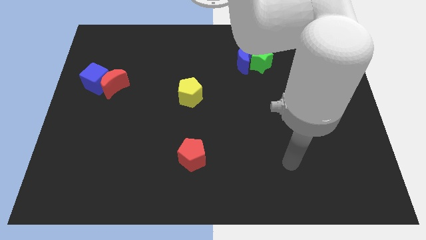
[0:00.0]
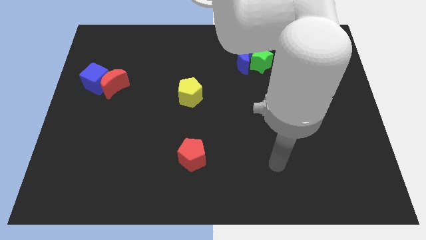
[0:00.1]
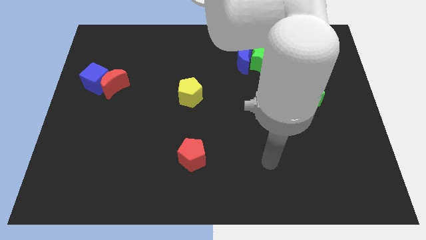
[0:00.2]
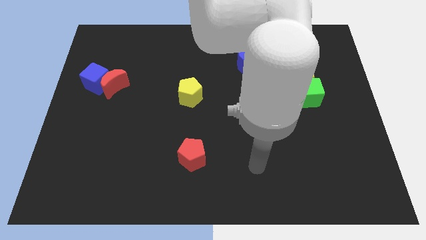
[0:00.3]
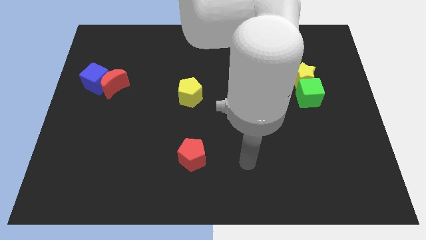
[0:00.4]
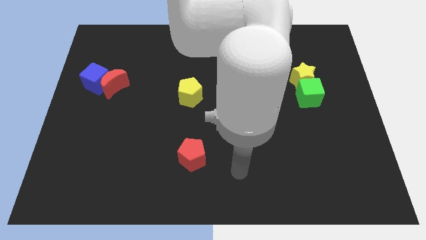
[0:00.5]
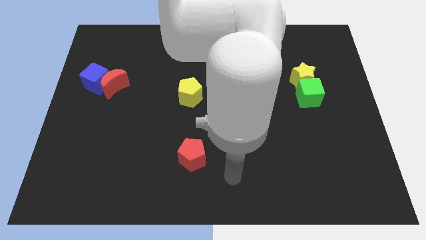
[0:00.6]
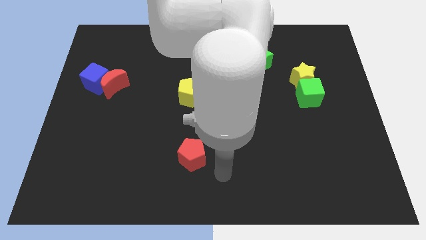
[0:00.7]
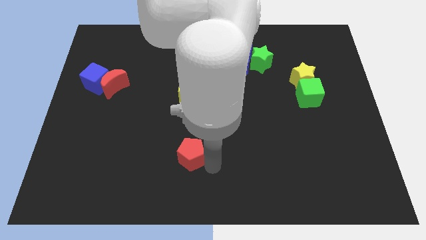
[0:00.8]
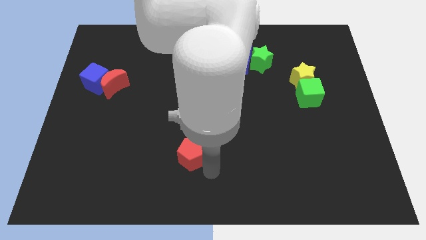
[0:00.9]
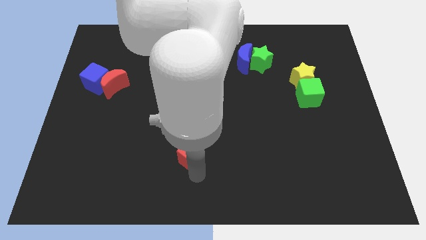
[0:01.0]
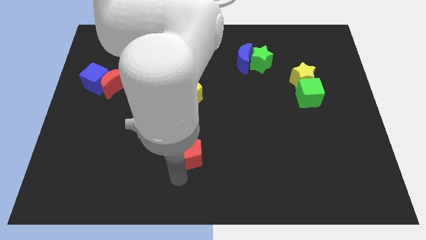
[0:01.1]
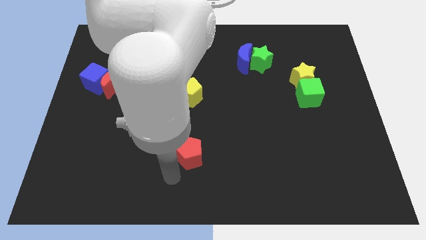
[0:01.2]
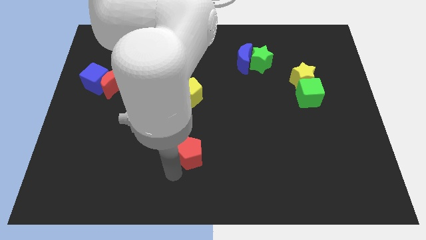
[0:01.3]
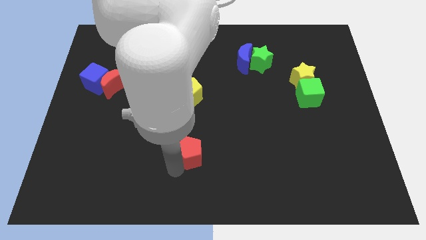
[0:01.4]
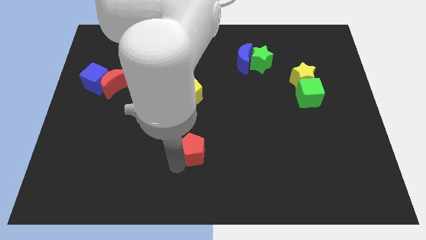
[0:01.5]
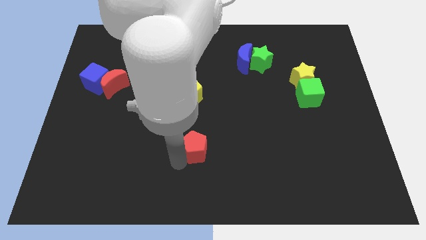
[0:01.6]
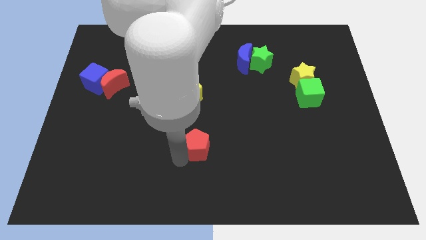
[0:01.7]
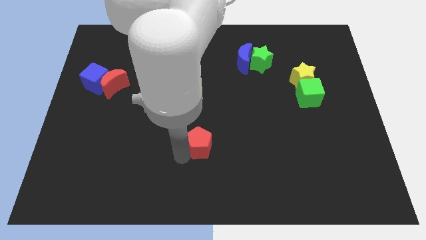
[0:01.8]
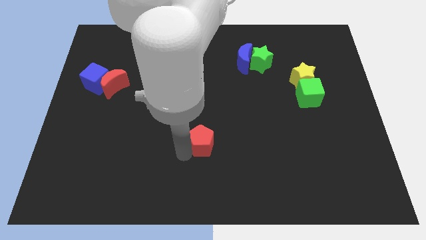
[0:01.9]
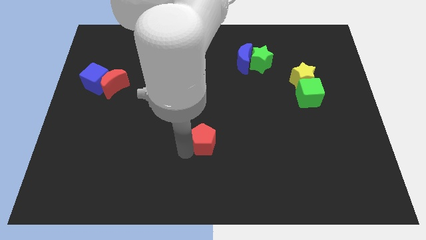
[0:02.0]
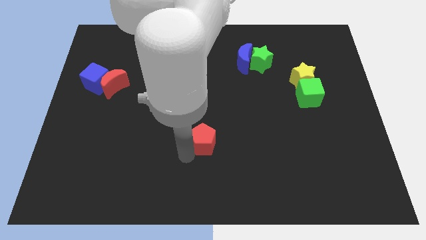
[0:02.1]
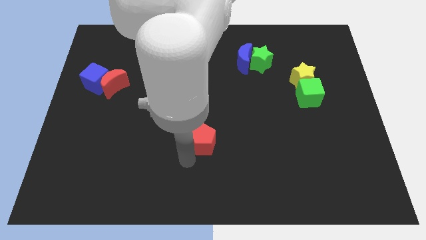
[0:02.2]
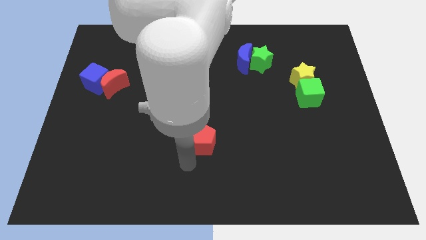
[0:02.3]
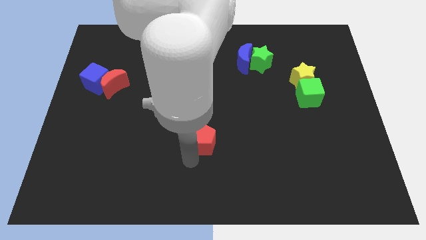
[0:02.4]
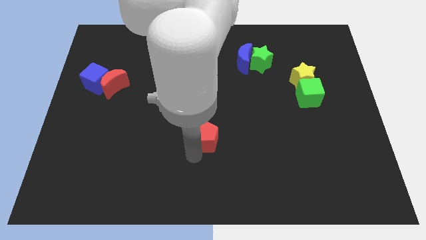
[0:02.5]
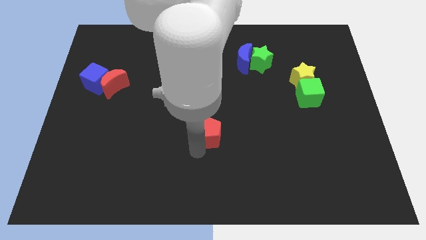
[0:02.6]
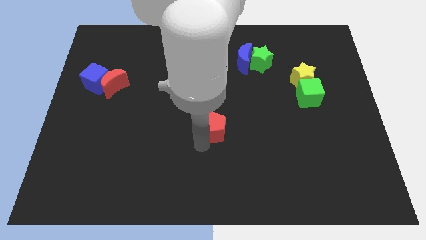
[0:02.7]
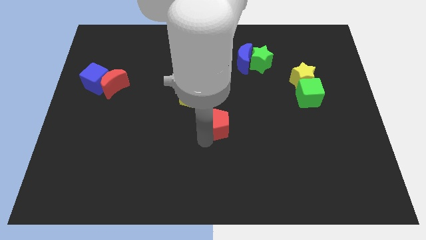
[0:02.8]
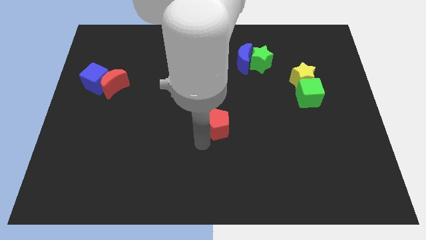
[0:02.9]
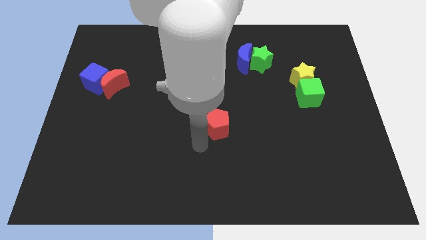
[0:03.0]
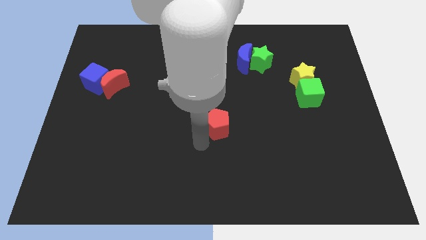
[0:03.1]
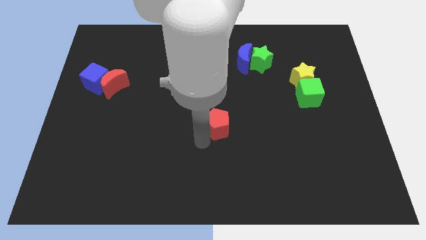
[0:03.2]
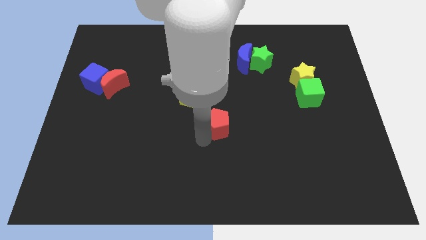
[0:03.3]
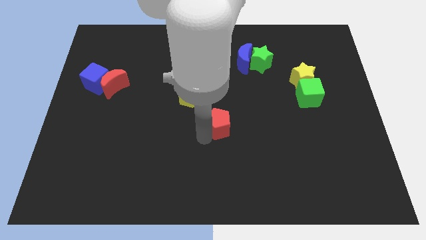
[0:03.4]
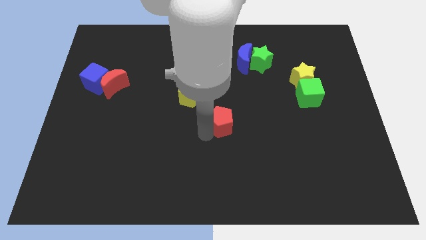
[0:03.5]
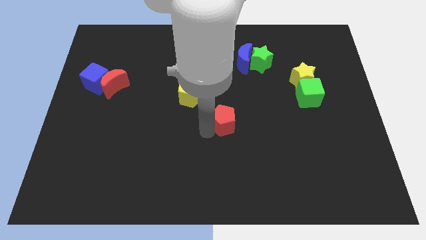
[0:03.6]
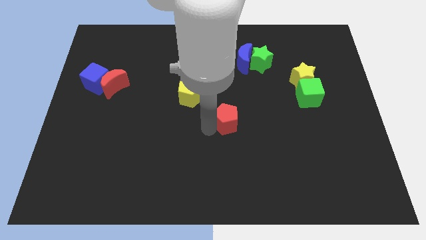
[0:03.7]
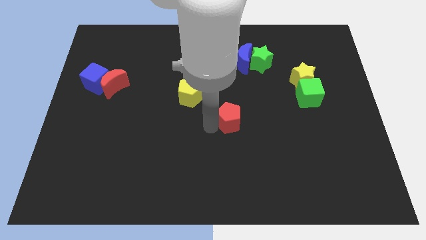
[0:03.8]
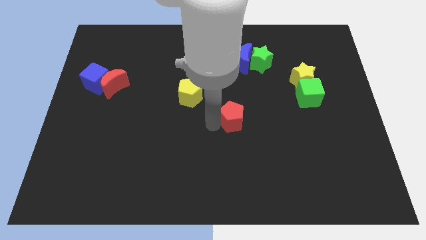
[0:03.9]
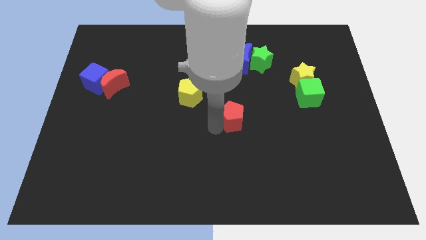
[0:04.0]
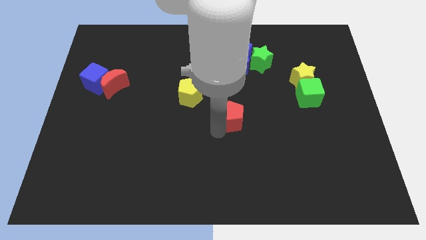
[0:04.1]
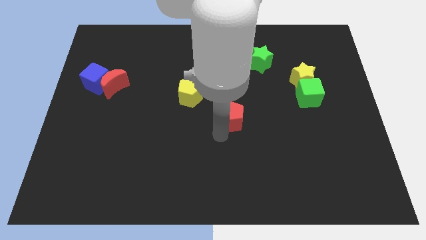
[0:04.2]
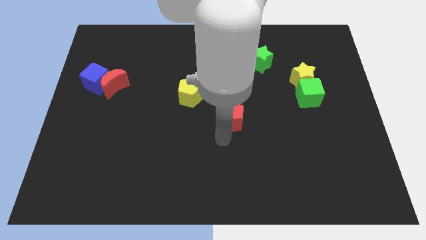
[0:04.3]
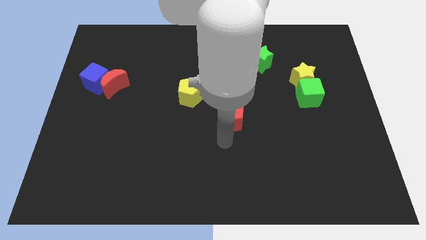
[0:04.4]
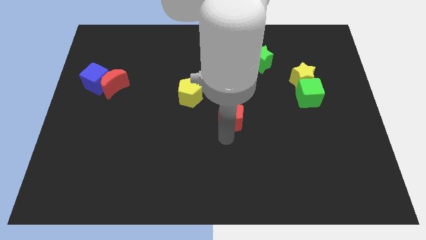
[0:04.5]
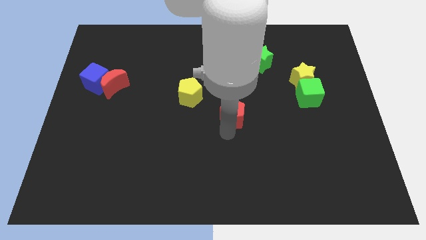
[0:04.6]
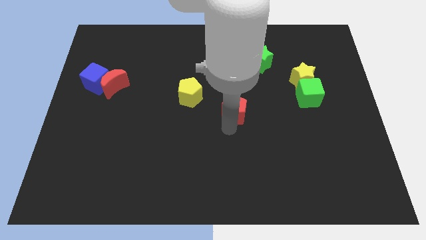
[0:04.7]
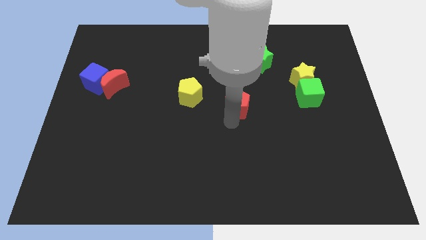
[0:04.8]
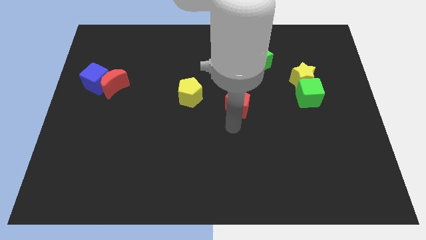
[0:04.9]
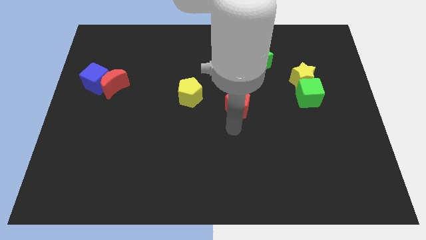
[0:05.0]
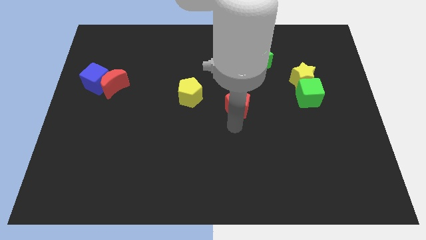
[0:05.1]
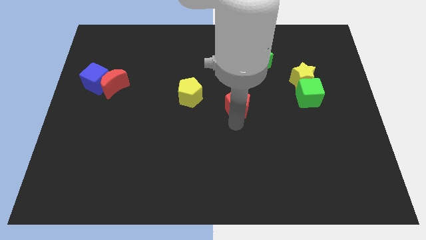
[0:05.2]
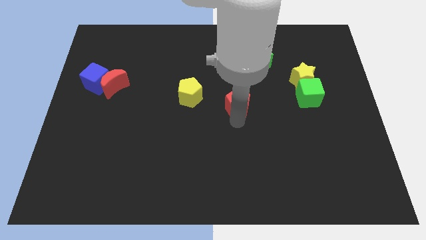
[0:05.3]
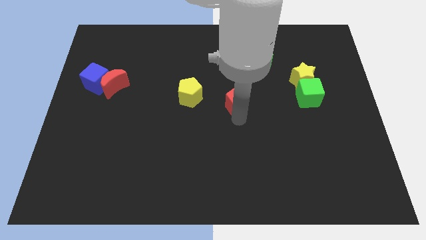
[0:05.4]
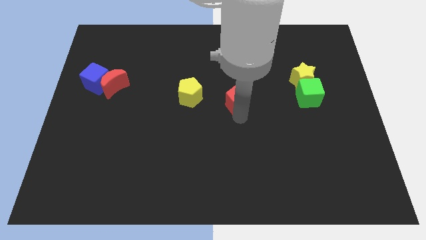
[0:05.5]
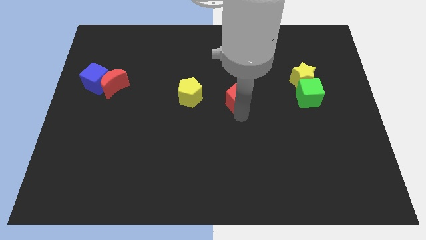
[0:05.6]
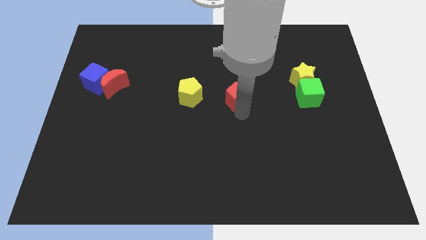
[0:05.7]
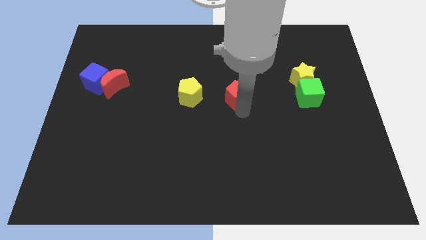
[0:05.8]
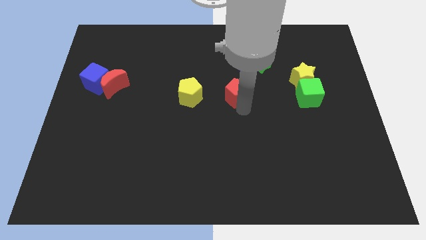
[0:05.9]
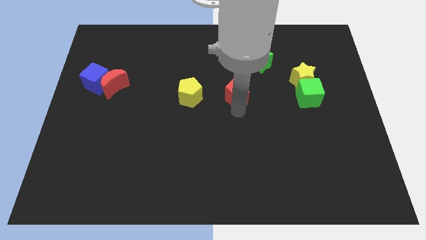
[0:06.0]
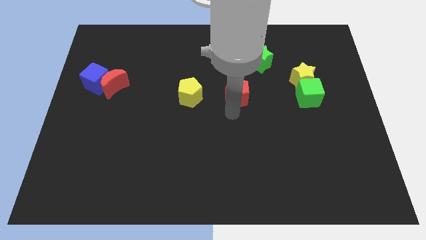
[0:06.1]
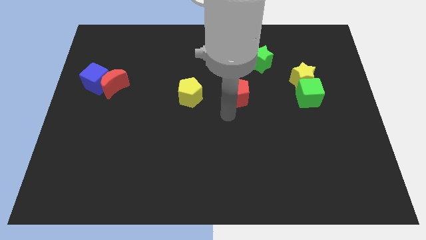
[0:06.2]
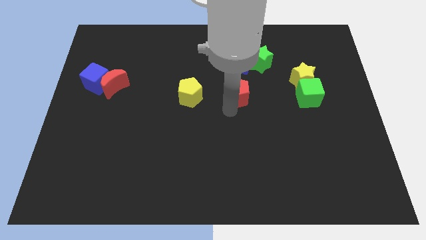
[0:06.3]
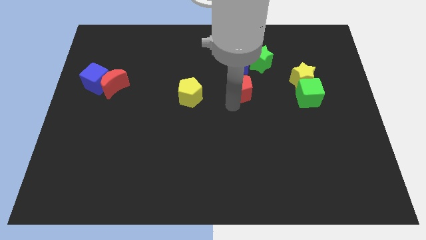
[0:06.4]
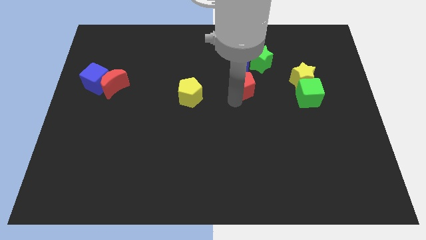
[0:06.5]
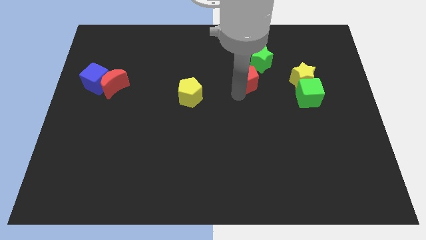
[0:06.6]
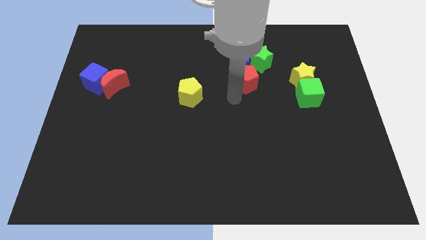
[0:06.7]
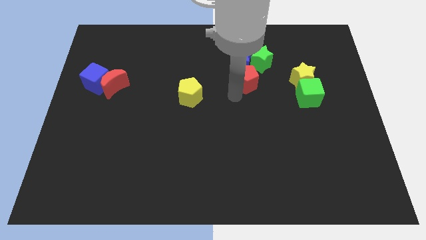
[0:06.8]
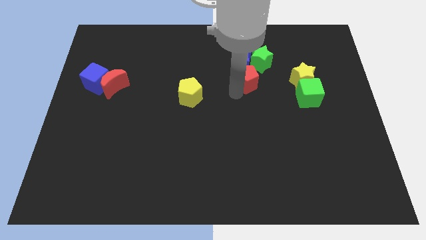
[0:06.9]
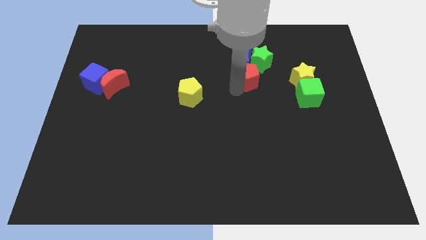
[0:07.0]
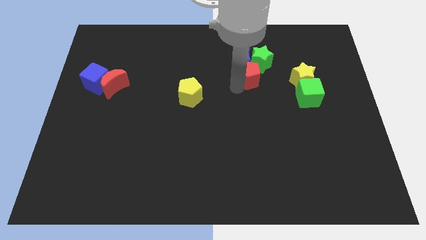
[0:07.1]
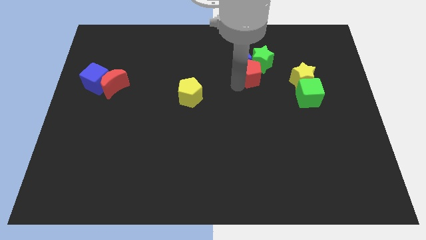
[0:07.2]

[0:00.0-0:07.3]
push the red pentagon to the green star
